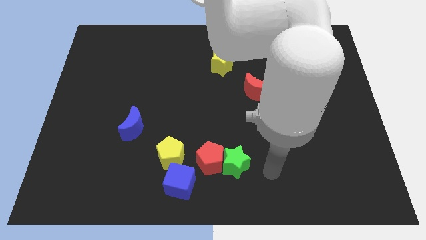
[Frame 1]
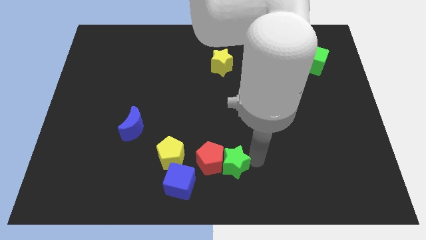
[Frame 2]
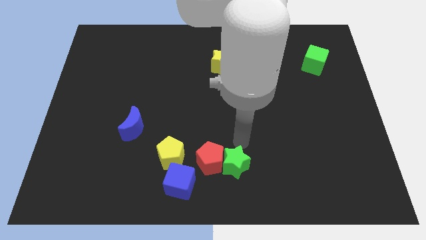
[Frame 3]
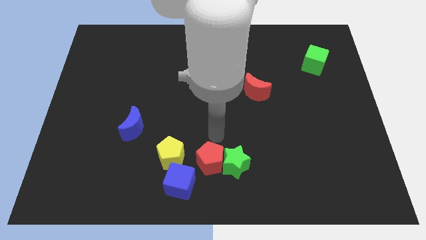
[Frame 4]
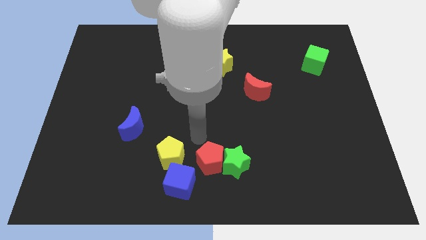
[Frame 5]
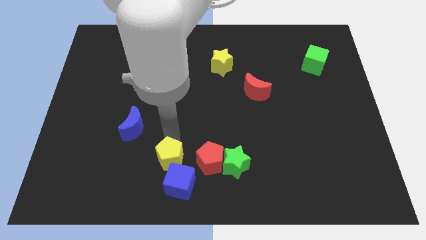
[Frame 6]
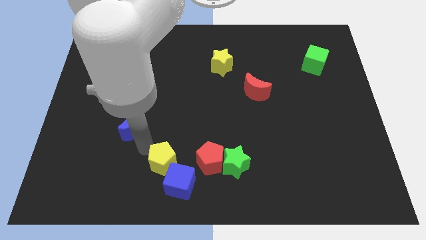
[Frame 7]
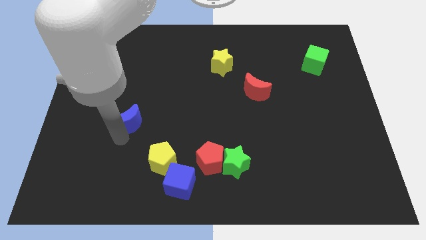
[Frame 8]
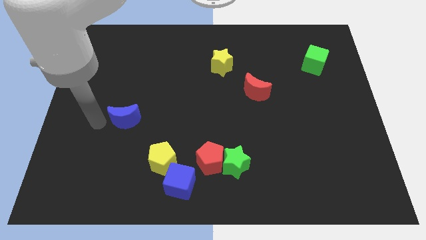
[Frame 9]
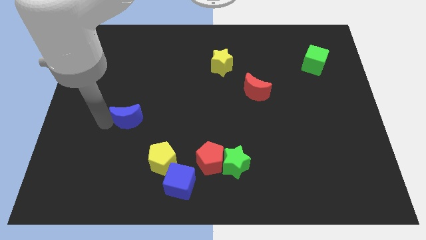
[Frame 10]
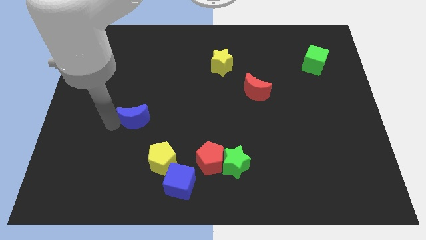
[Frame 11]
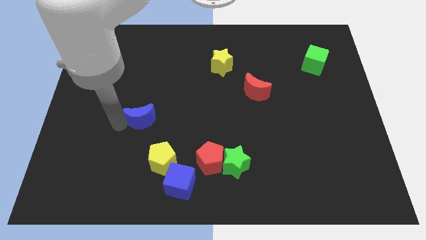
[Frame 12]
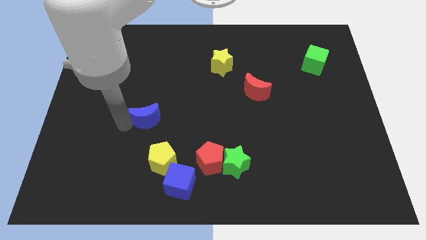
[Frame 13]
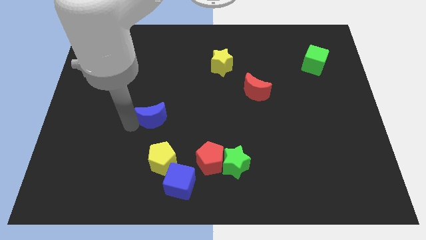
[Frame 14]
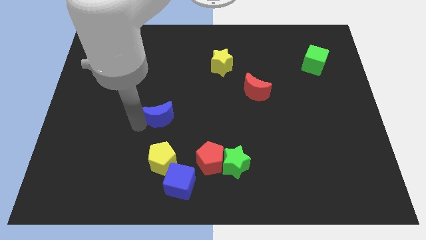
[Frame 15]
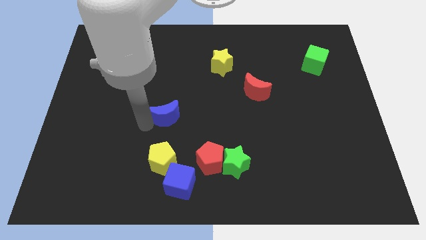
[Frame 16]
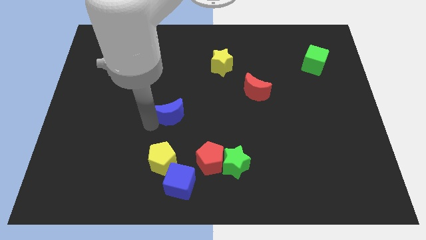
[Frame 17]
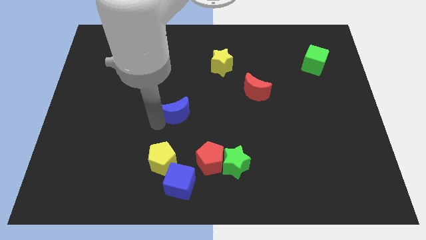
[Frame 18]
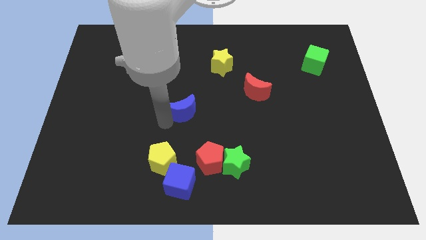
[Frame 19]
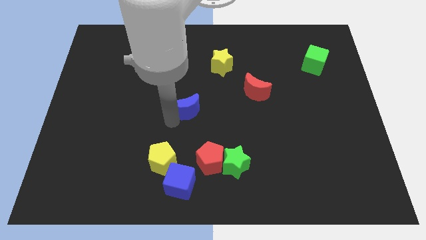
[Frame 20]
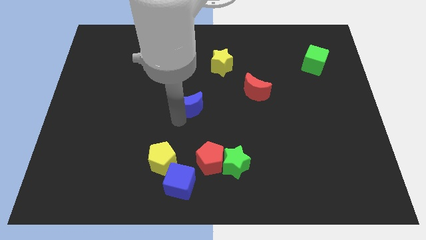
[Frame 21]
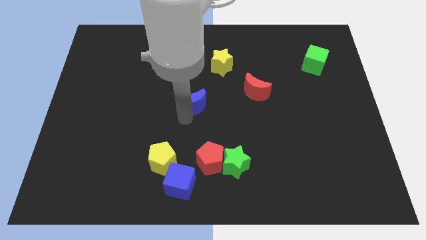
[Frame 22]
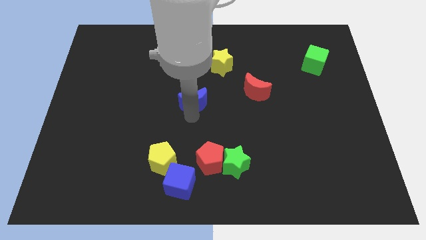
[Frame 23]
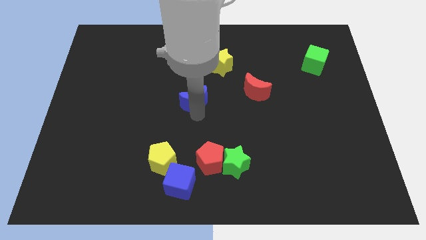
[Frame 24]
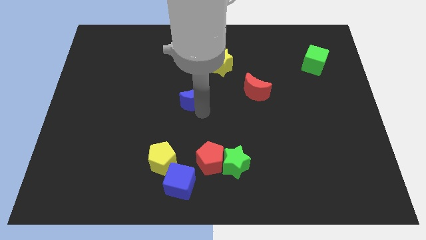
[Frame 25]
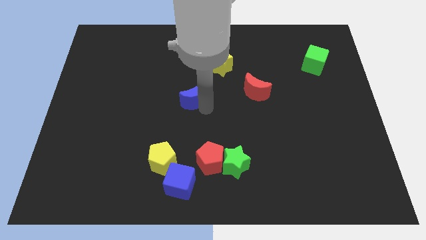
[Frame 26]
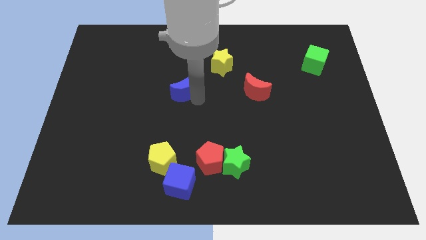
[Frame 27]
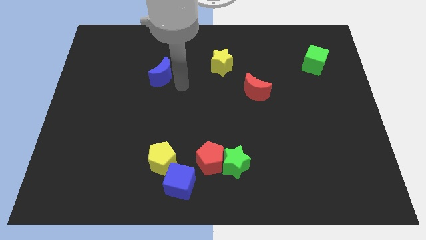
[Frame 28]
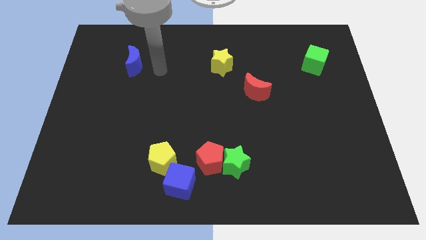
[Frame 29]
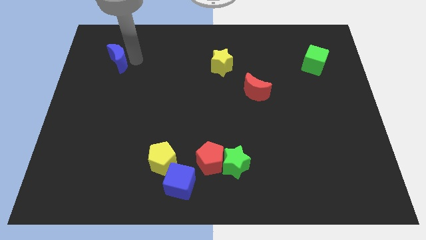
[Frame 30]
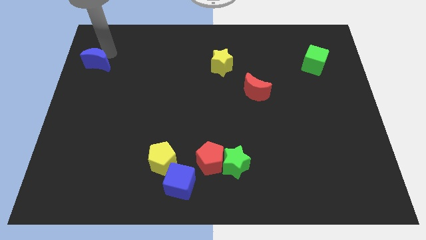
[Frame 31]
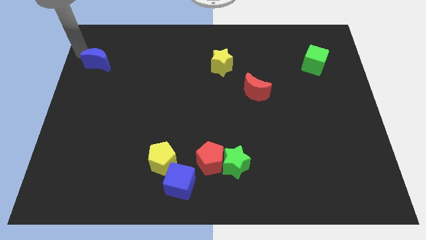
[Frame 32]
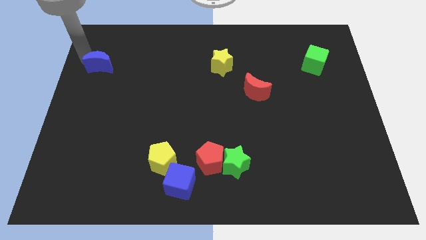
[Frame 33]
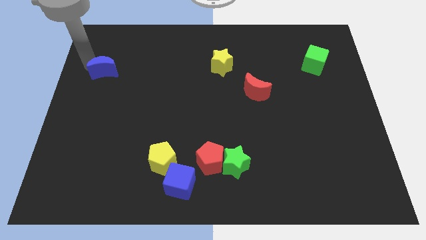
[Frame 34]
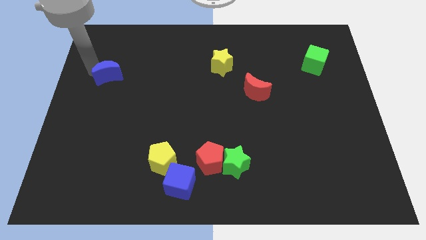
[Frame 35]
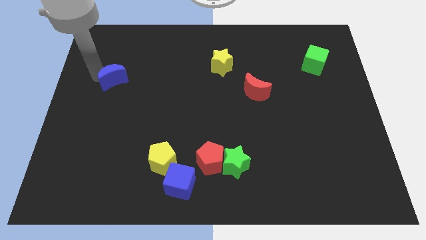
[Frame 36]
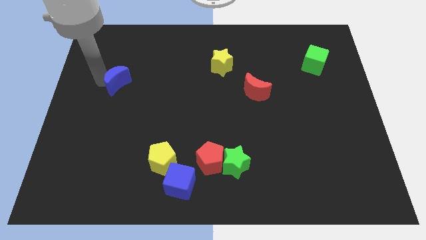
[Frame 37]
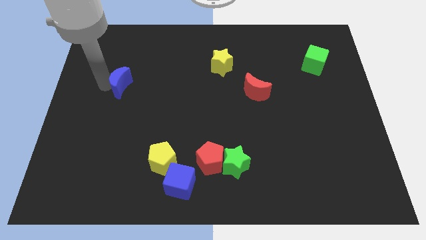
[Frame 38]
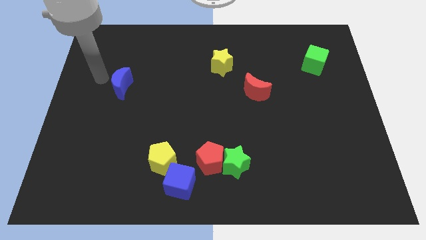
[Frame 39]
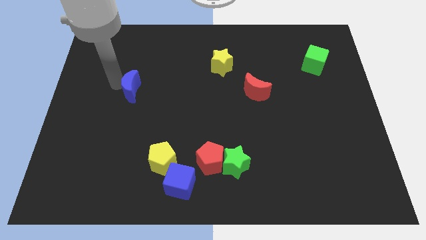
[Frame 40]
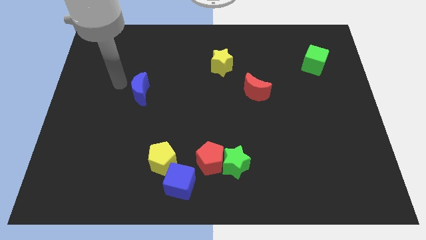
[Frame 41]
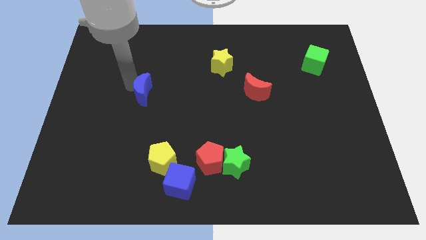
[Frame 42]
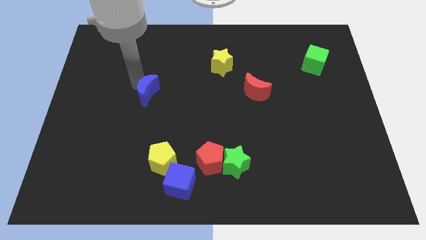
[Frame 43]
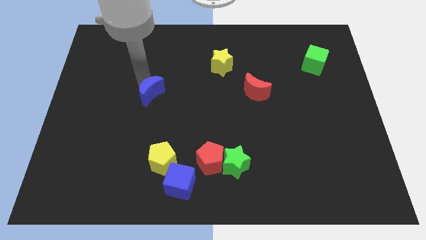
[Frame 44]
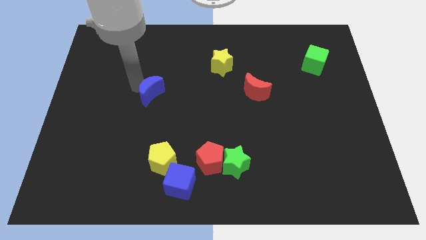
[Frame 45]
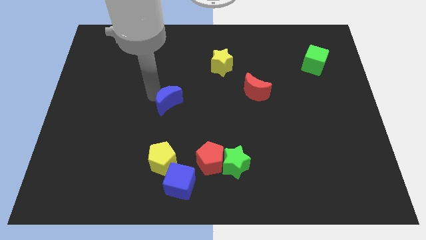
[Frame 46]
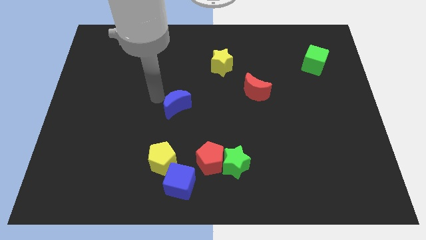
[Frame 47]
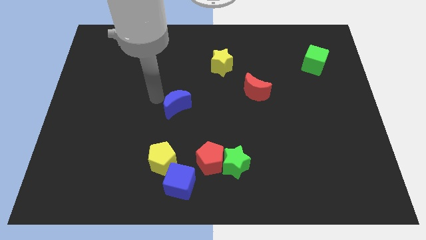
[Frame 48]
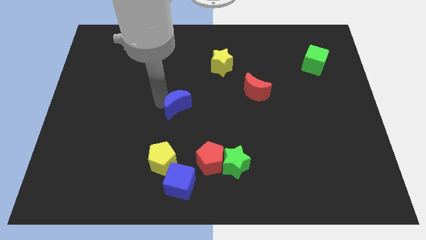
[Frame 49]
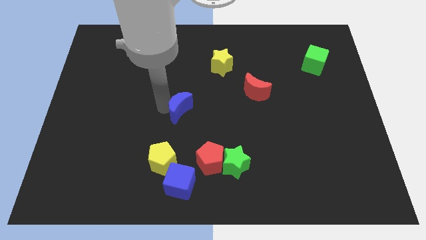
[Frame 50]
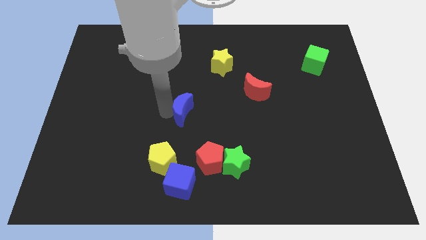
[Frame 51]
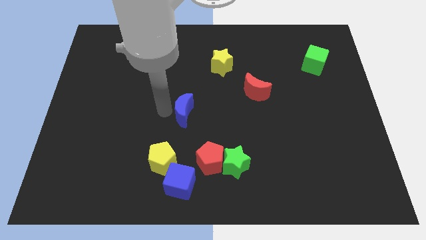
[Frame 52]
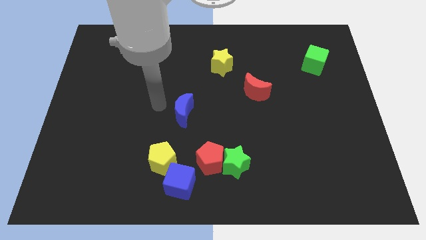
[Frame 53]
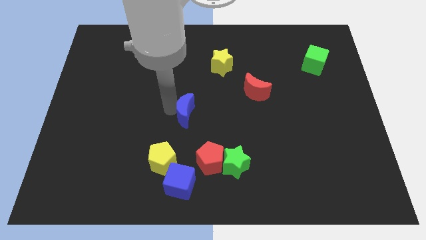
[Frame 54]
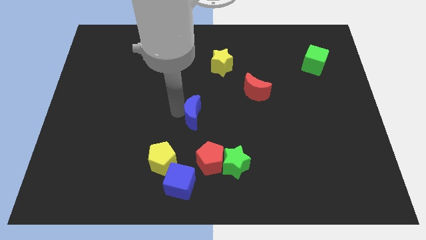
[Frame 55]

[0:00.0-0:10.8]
move the blue moon to the top of the red pentagon

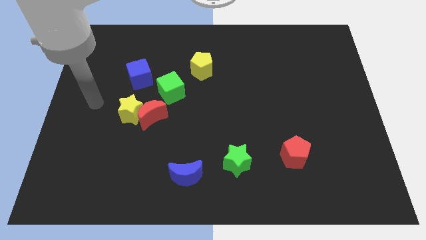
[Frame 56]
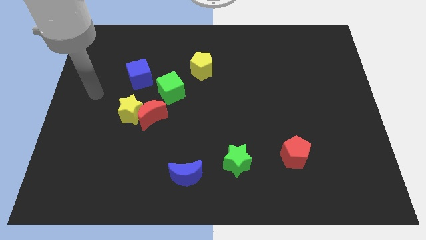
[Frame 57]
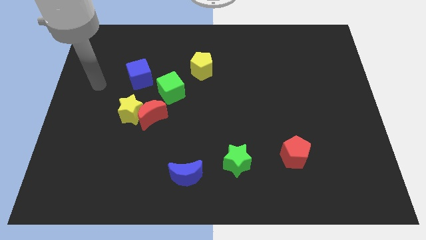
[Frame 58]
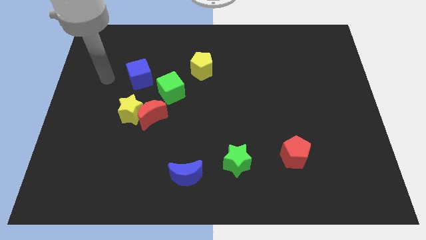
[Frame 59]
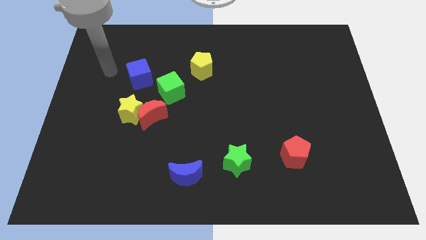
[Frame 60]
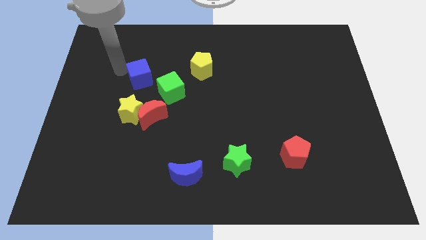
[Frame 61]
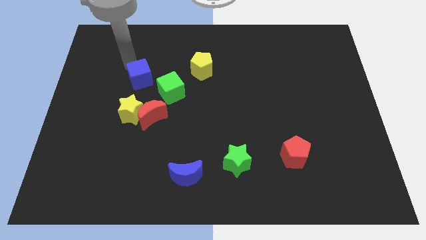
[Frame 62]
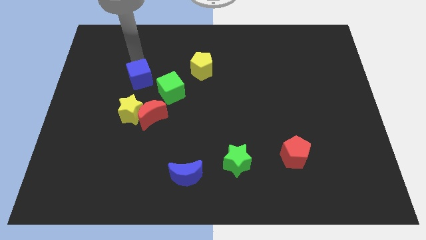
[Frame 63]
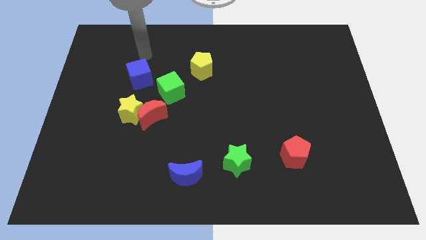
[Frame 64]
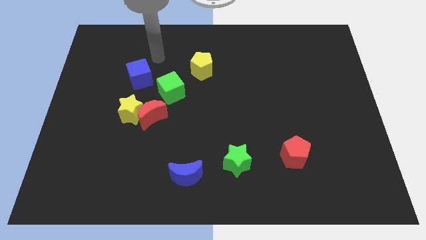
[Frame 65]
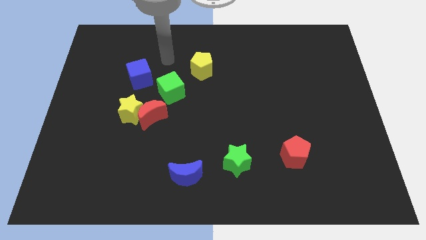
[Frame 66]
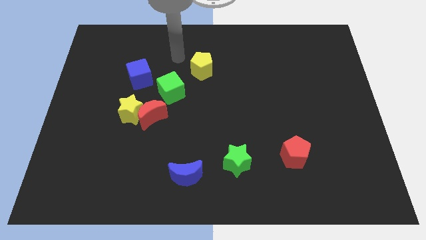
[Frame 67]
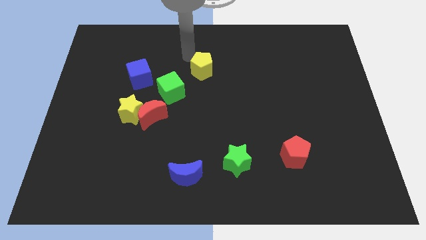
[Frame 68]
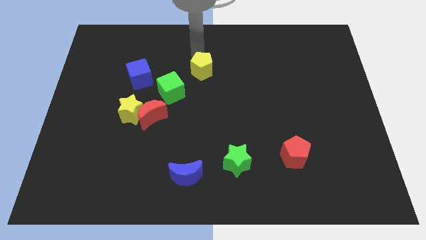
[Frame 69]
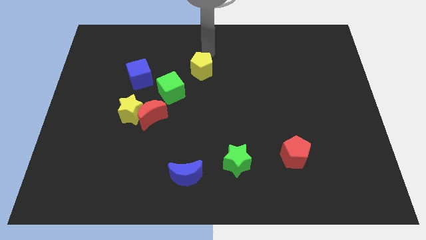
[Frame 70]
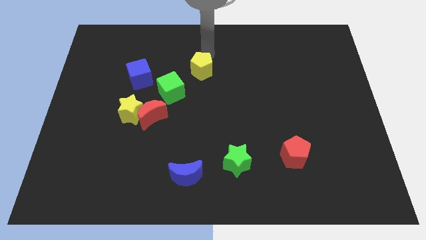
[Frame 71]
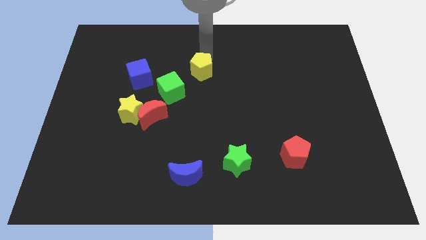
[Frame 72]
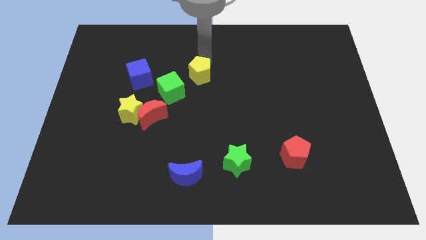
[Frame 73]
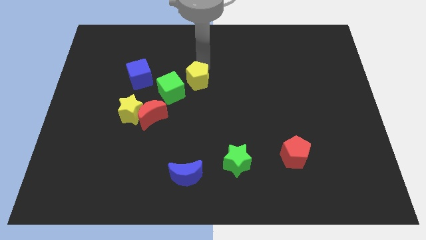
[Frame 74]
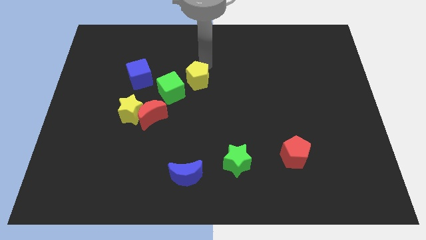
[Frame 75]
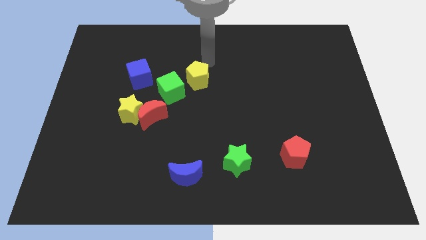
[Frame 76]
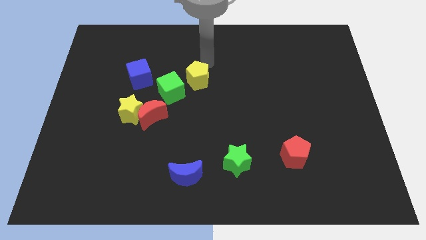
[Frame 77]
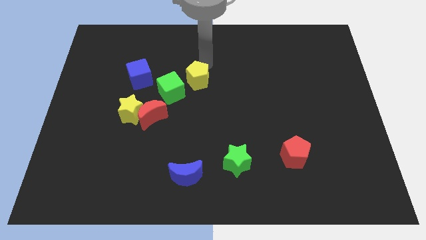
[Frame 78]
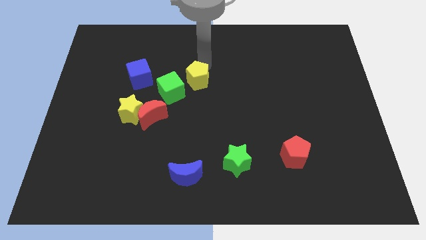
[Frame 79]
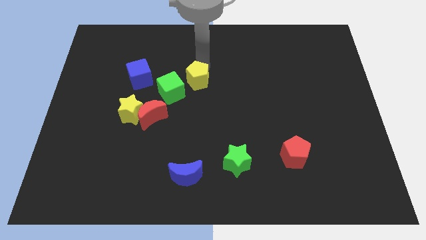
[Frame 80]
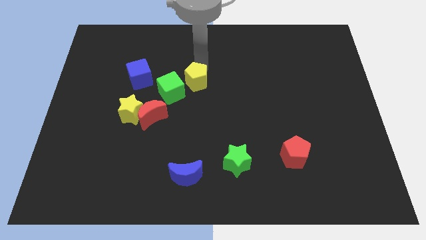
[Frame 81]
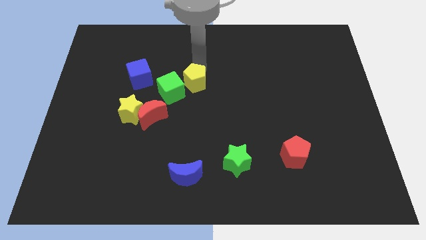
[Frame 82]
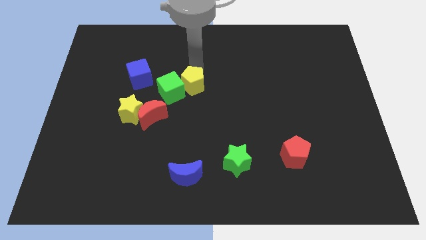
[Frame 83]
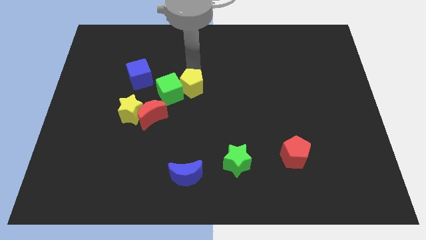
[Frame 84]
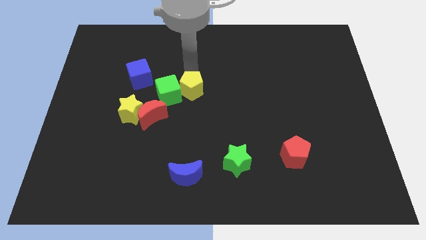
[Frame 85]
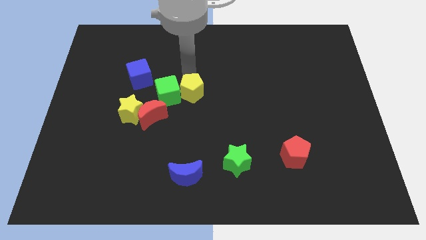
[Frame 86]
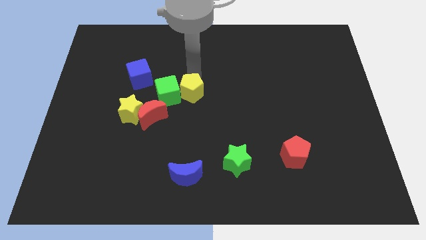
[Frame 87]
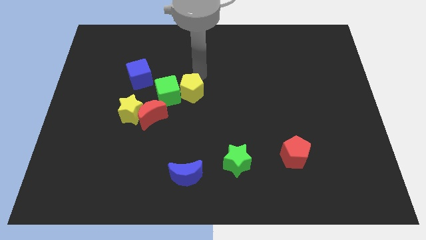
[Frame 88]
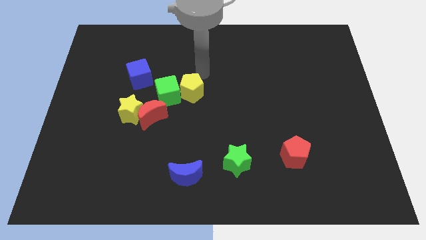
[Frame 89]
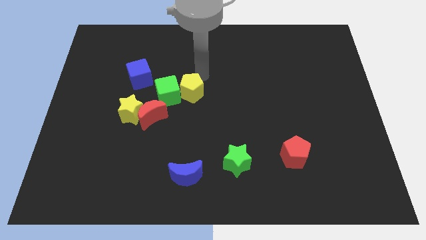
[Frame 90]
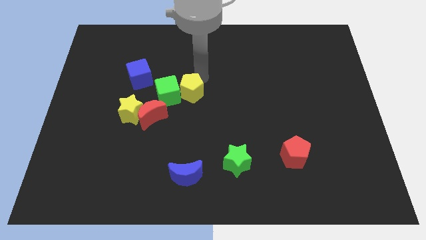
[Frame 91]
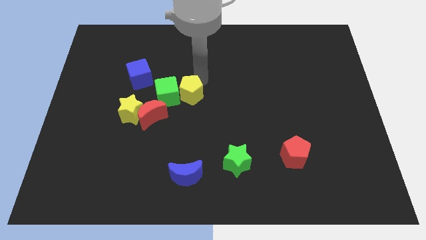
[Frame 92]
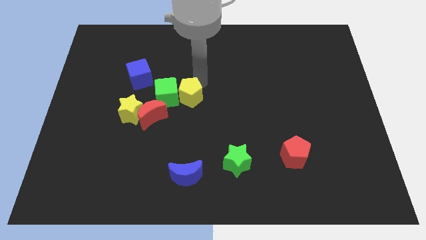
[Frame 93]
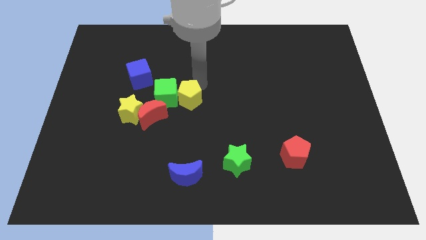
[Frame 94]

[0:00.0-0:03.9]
move the yellow pentagon right of the yellow star
